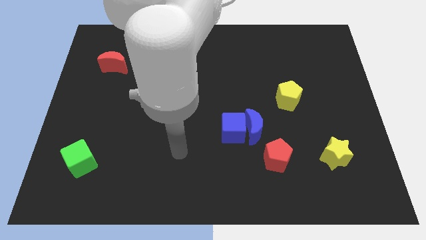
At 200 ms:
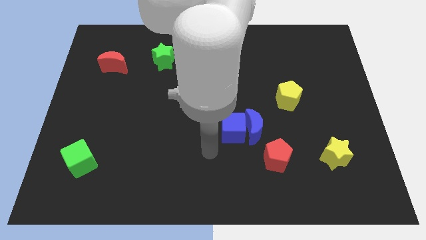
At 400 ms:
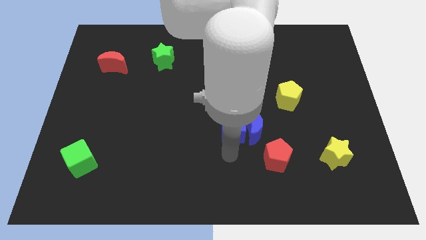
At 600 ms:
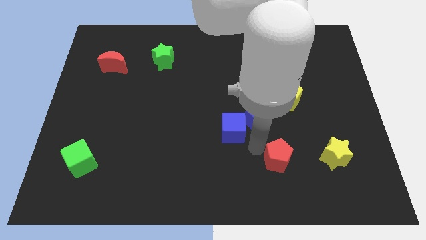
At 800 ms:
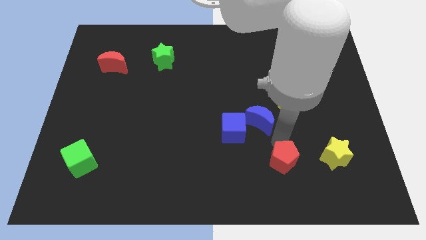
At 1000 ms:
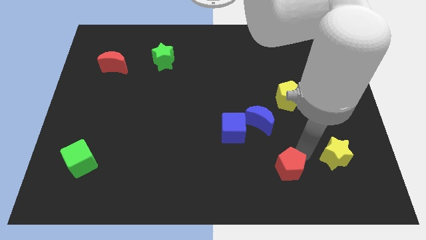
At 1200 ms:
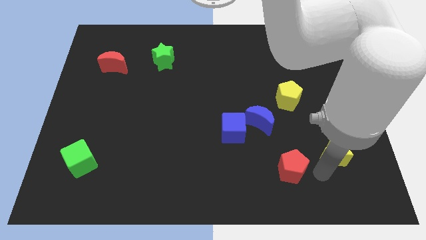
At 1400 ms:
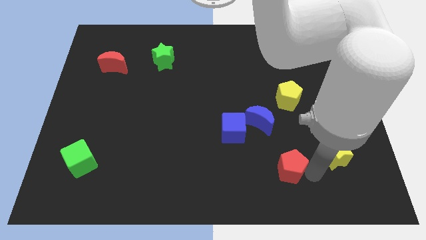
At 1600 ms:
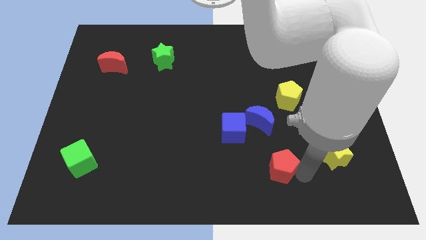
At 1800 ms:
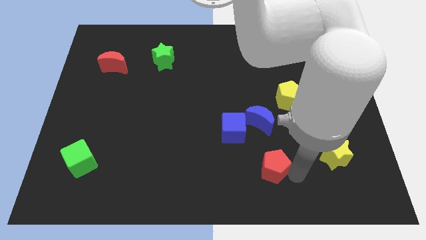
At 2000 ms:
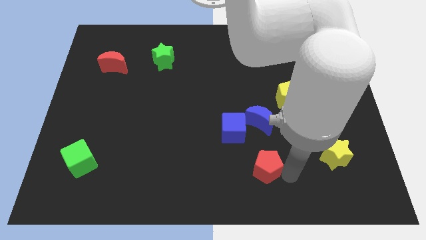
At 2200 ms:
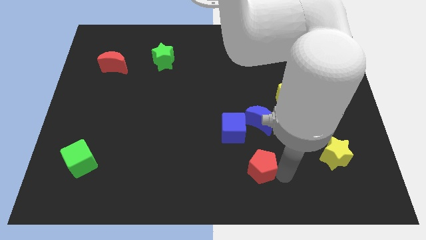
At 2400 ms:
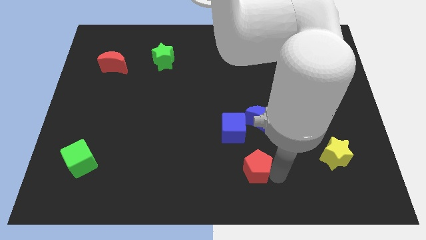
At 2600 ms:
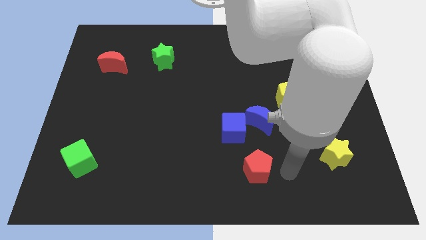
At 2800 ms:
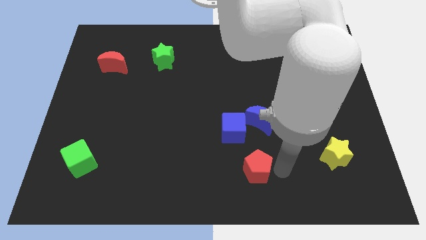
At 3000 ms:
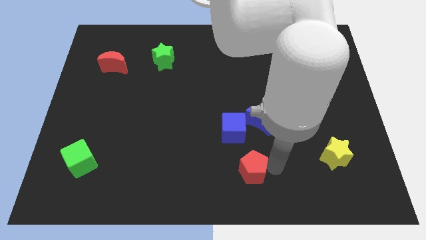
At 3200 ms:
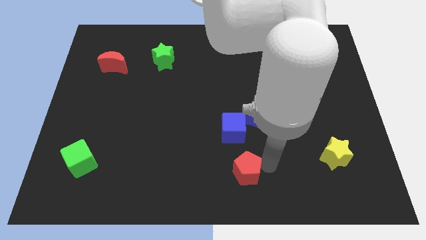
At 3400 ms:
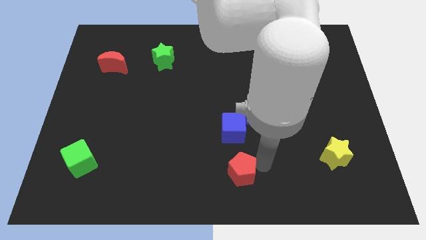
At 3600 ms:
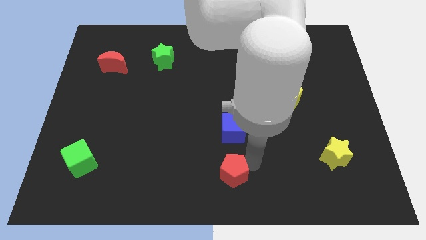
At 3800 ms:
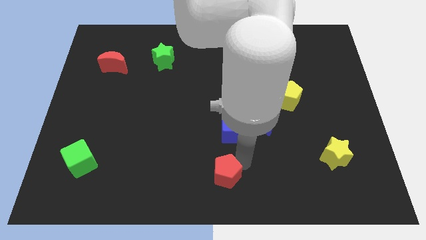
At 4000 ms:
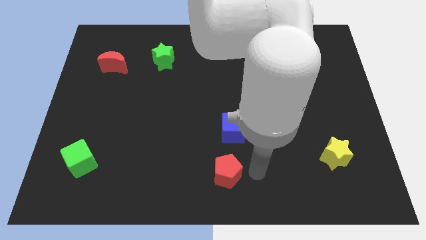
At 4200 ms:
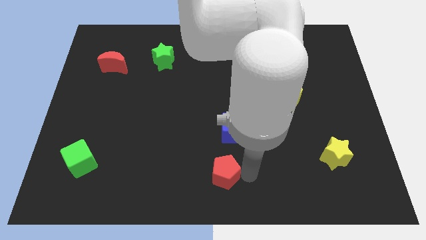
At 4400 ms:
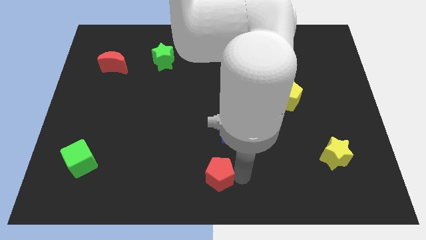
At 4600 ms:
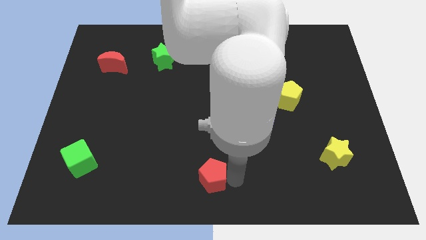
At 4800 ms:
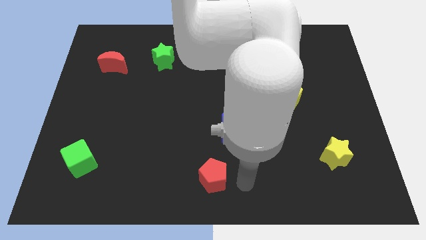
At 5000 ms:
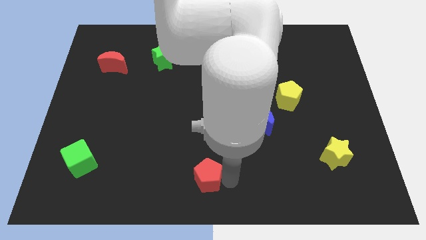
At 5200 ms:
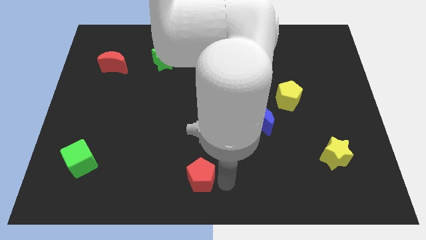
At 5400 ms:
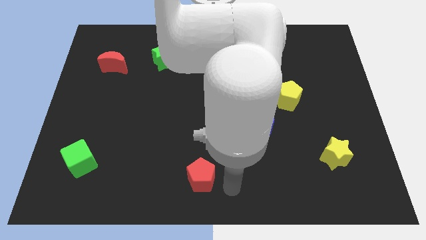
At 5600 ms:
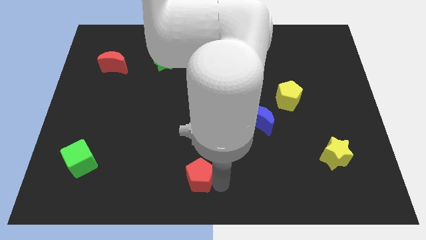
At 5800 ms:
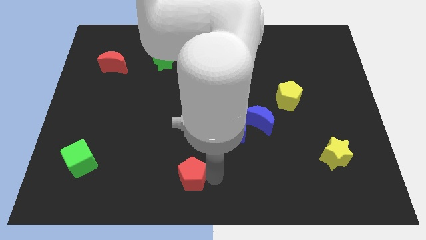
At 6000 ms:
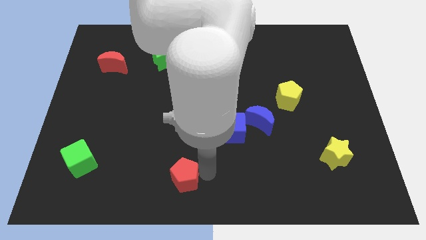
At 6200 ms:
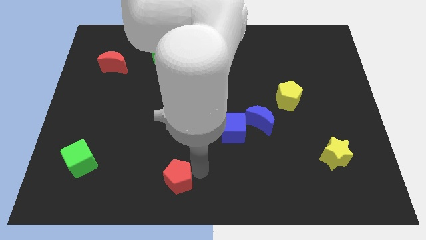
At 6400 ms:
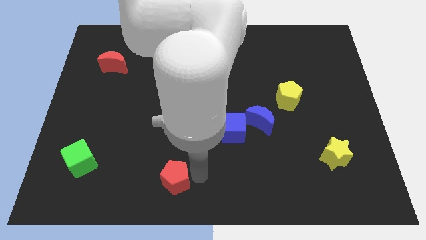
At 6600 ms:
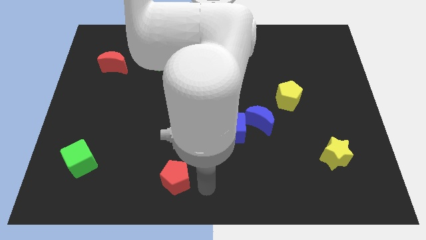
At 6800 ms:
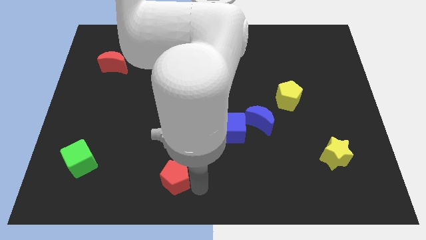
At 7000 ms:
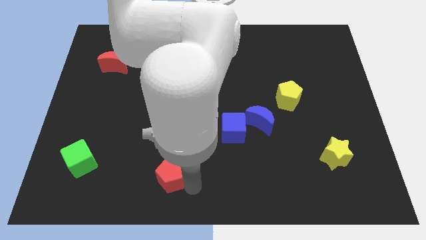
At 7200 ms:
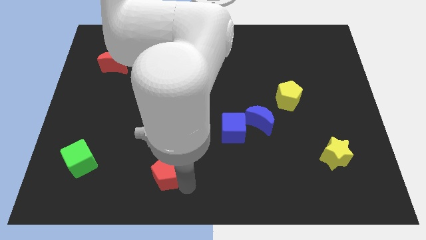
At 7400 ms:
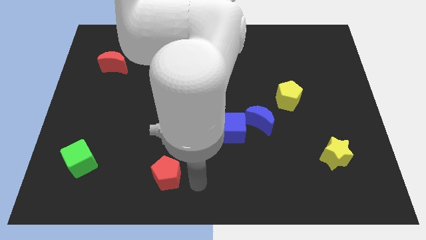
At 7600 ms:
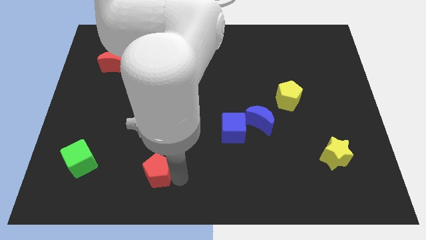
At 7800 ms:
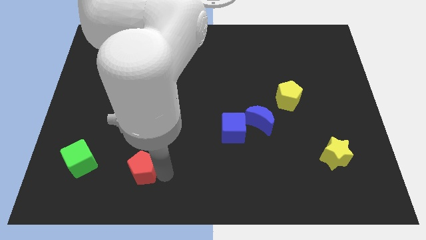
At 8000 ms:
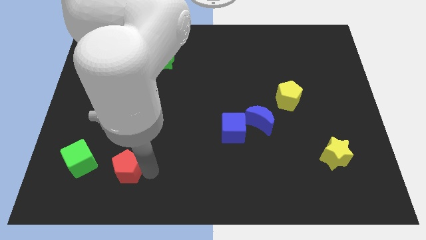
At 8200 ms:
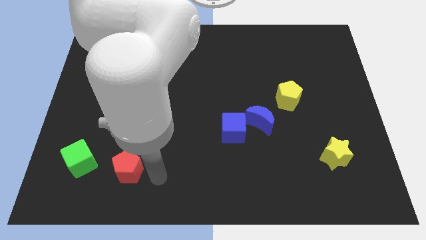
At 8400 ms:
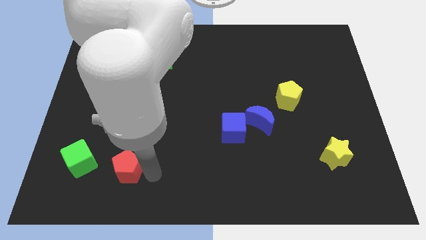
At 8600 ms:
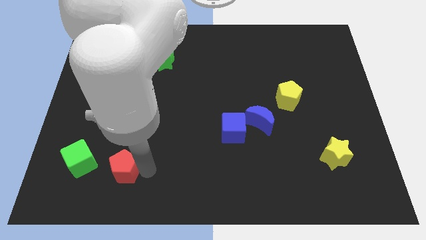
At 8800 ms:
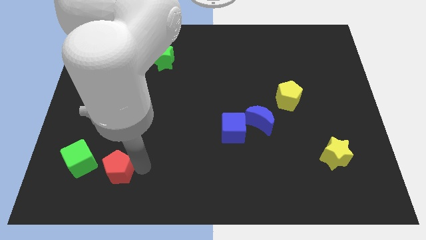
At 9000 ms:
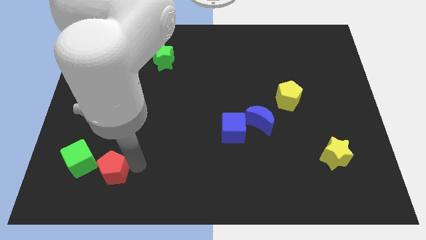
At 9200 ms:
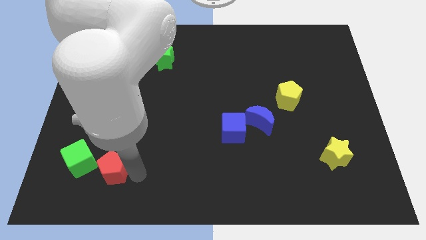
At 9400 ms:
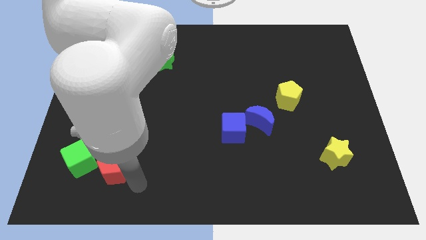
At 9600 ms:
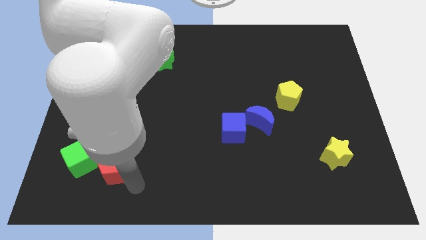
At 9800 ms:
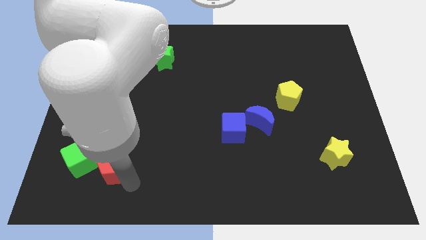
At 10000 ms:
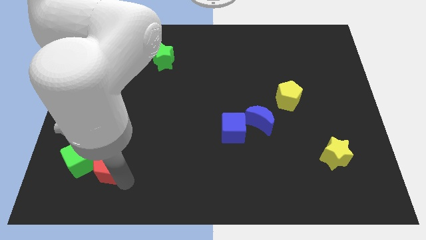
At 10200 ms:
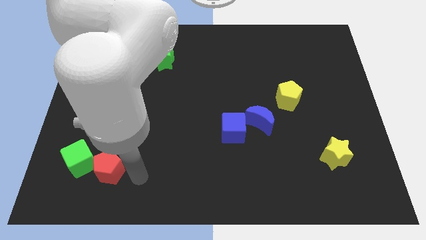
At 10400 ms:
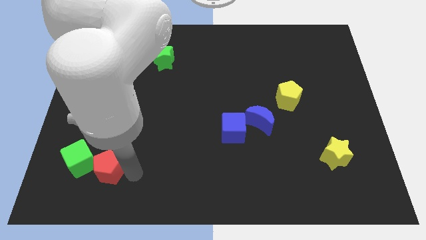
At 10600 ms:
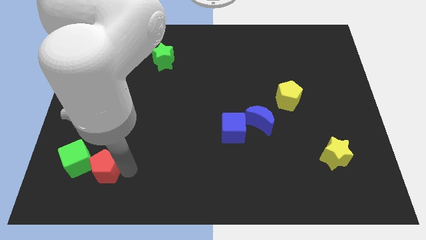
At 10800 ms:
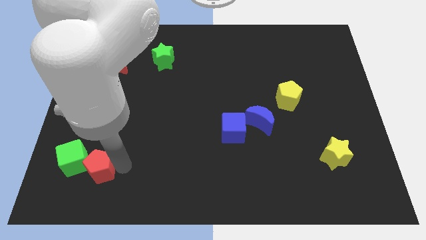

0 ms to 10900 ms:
slide the red pentagon towards the green cube

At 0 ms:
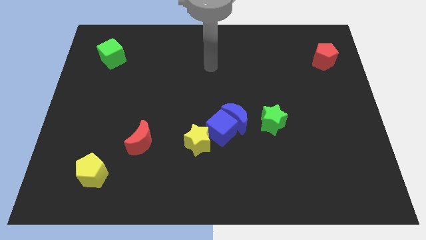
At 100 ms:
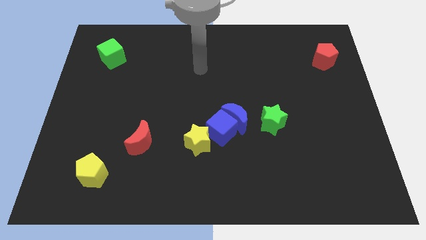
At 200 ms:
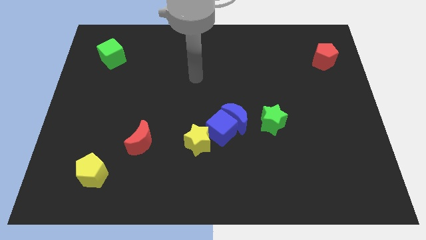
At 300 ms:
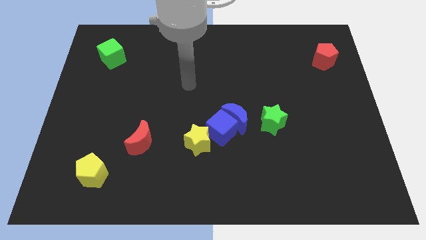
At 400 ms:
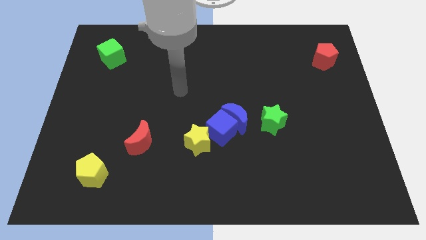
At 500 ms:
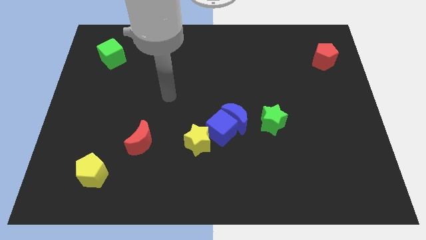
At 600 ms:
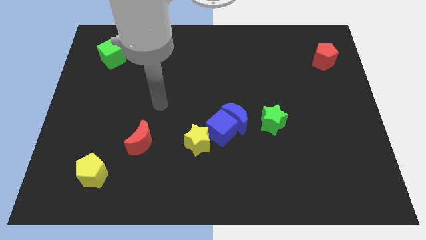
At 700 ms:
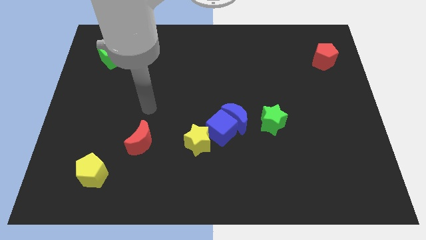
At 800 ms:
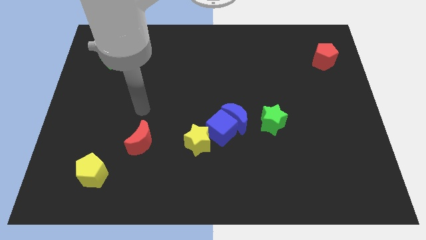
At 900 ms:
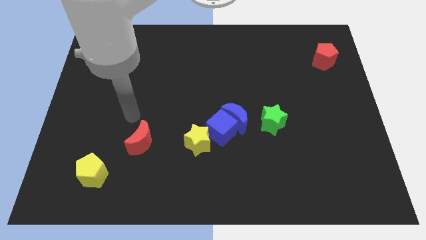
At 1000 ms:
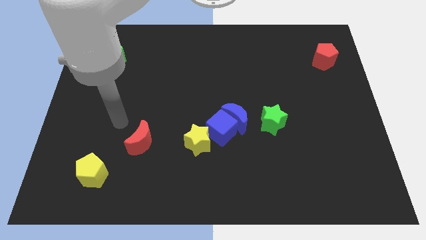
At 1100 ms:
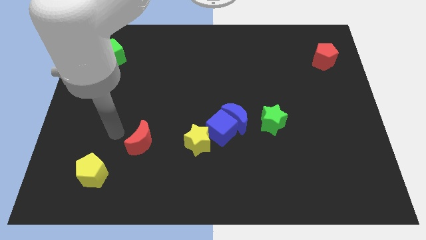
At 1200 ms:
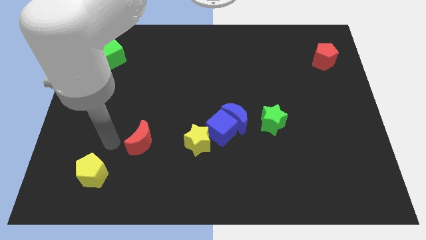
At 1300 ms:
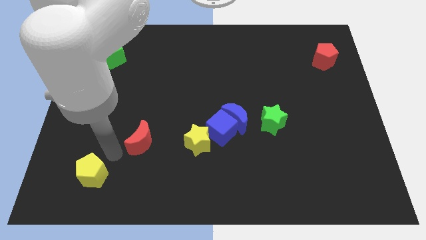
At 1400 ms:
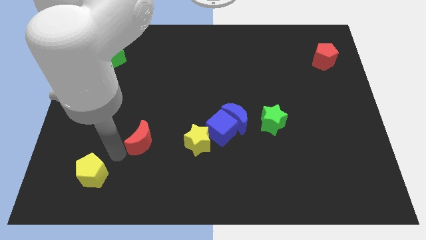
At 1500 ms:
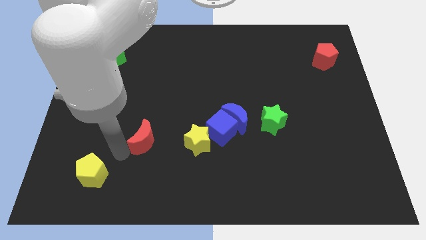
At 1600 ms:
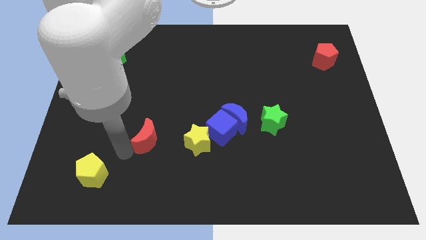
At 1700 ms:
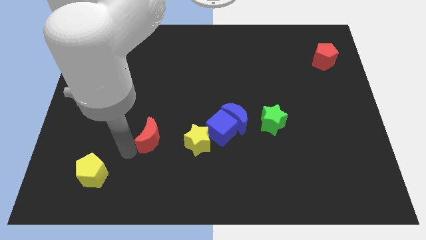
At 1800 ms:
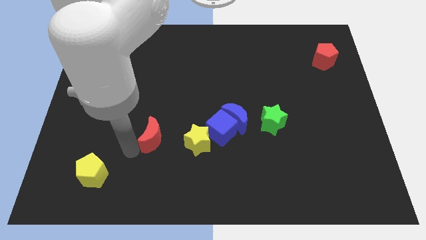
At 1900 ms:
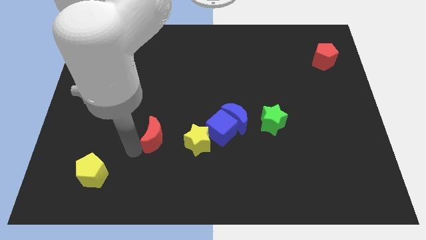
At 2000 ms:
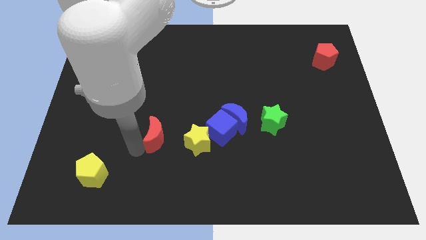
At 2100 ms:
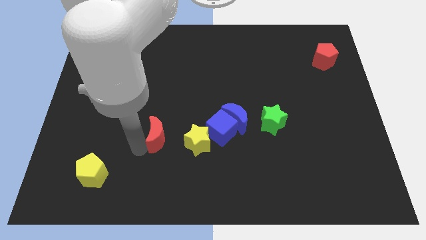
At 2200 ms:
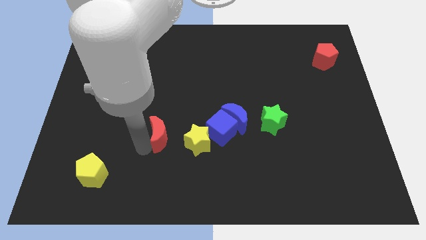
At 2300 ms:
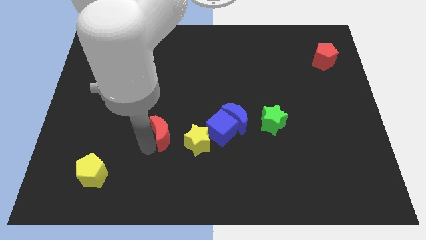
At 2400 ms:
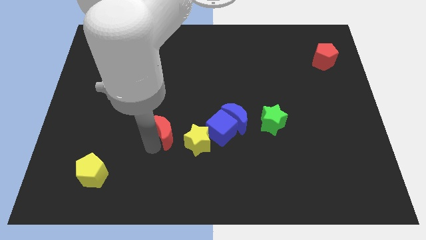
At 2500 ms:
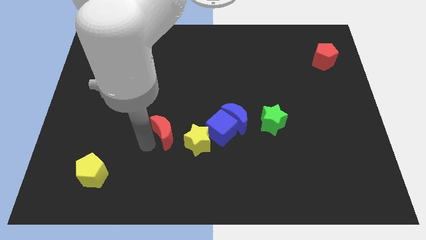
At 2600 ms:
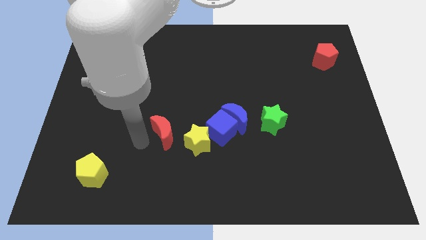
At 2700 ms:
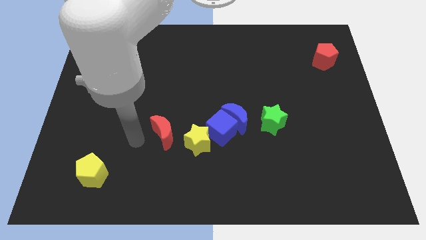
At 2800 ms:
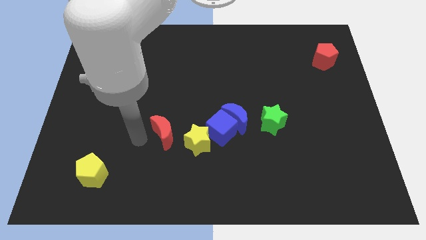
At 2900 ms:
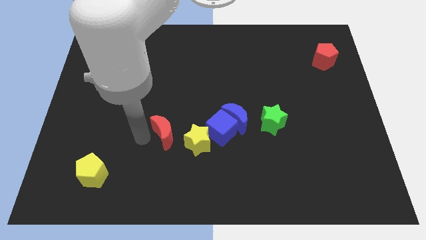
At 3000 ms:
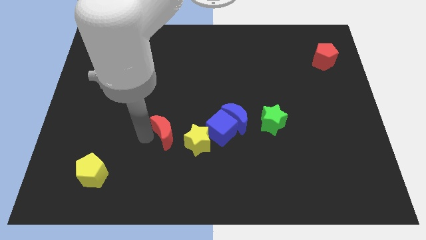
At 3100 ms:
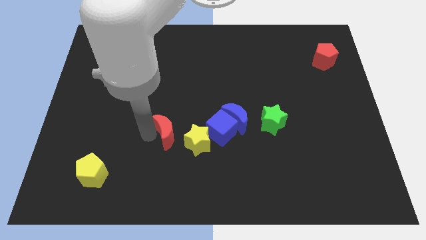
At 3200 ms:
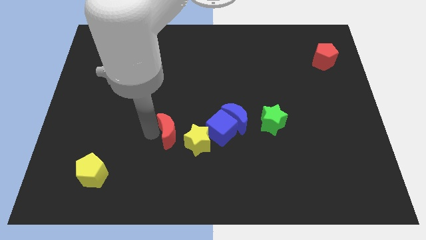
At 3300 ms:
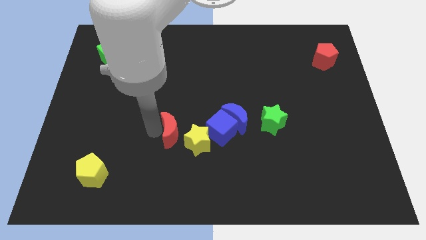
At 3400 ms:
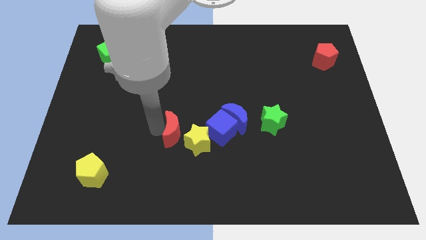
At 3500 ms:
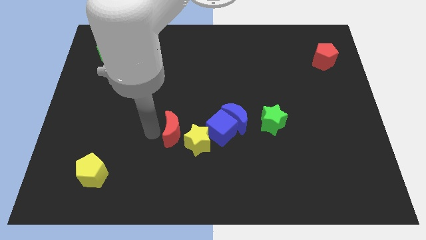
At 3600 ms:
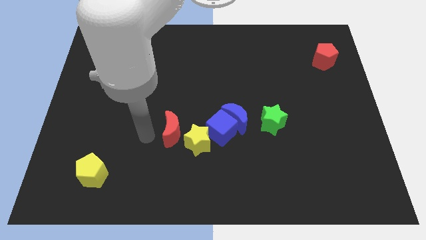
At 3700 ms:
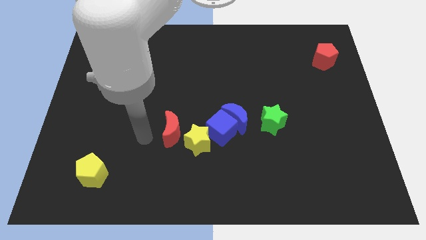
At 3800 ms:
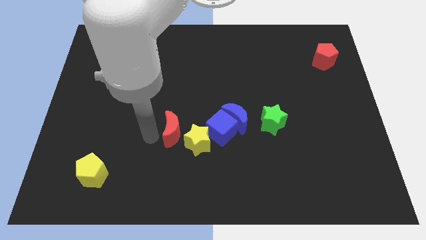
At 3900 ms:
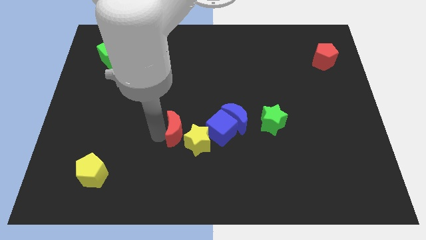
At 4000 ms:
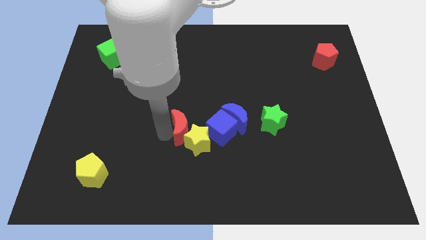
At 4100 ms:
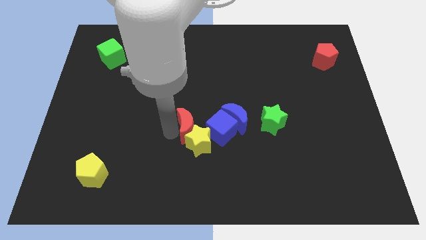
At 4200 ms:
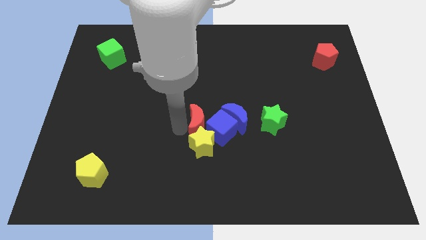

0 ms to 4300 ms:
slide the red moon close to the blue cube
